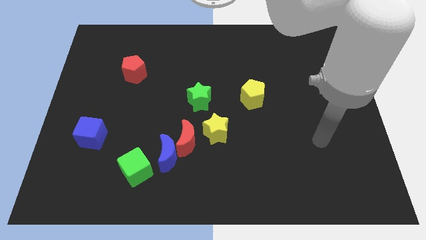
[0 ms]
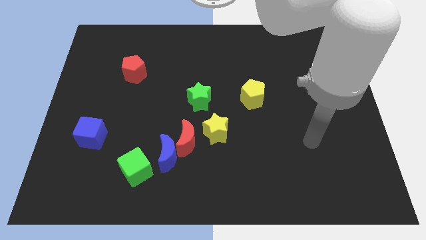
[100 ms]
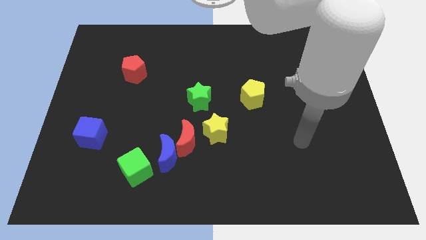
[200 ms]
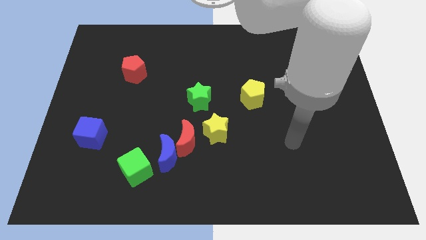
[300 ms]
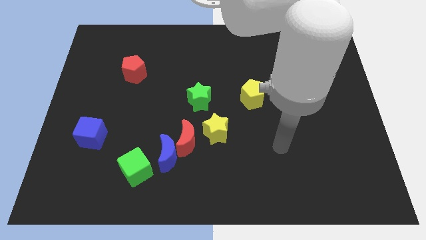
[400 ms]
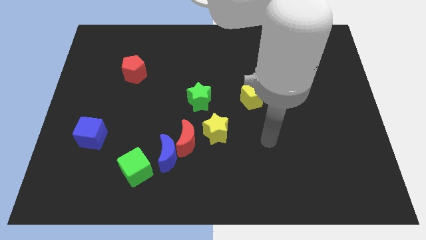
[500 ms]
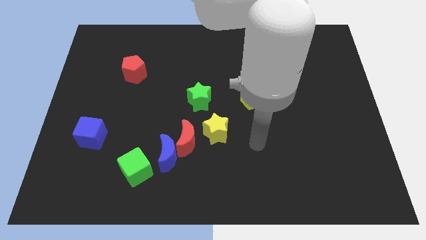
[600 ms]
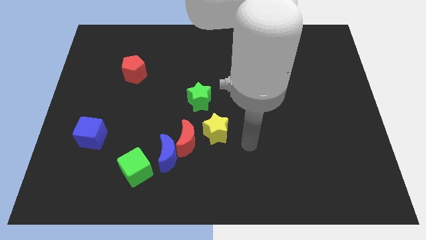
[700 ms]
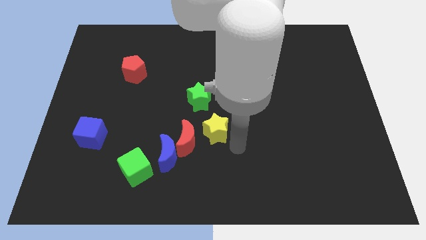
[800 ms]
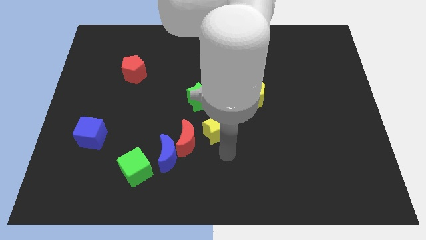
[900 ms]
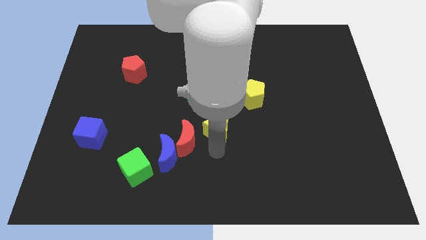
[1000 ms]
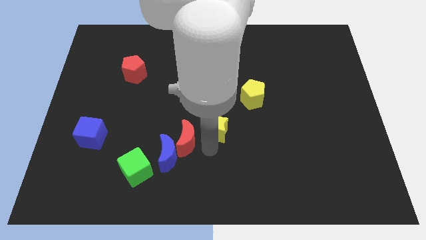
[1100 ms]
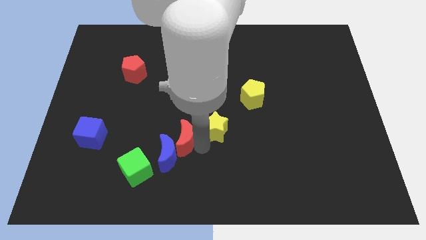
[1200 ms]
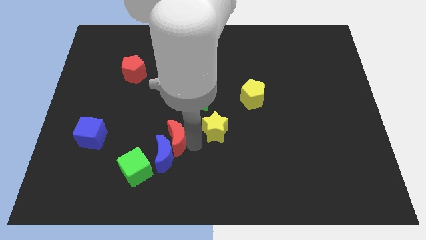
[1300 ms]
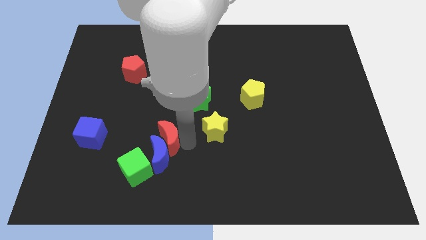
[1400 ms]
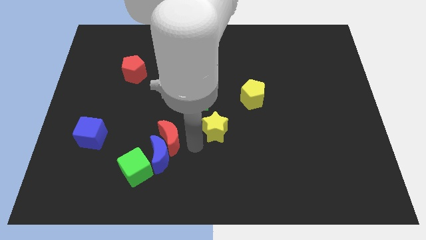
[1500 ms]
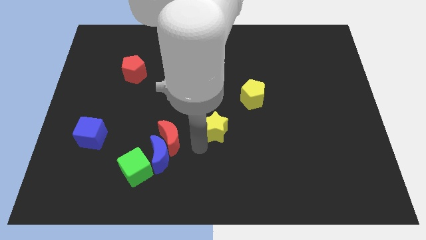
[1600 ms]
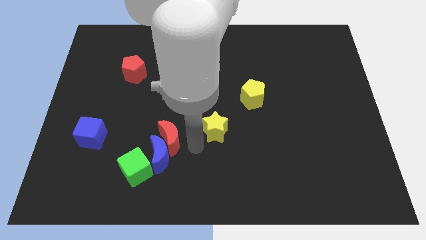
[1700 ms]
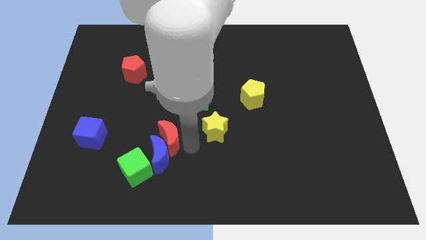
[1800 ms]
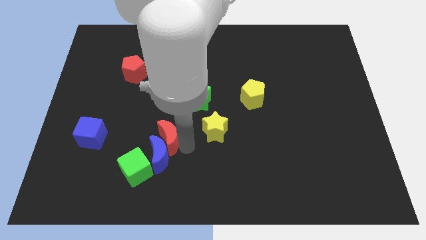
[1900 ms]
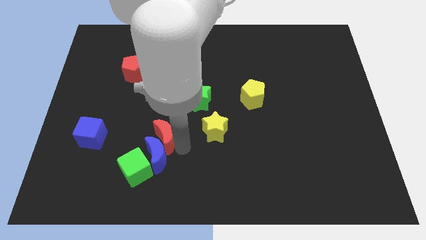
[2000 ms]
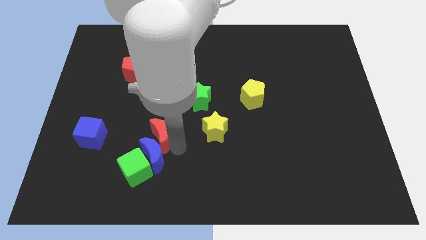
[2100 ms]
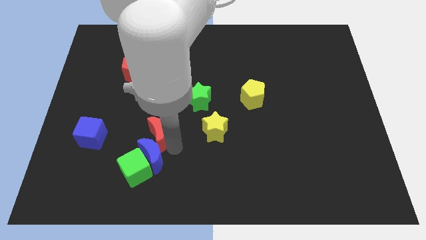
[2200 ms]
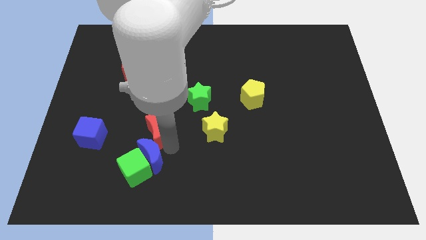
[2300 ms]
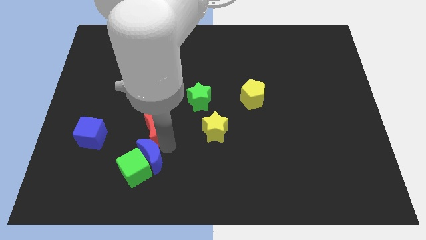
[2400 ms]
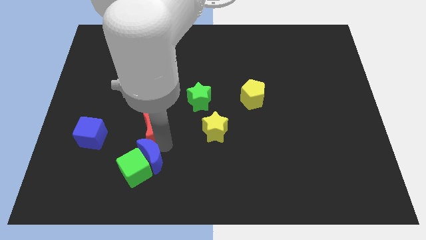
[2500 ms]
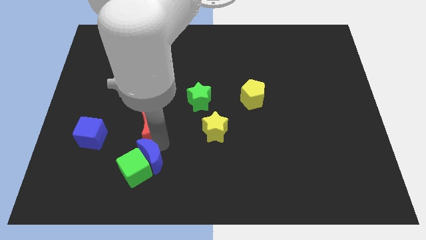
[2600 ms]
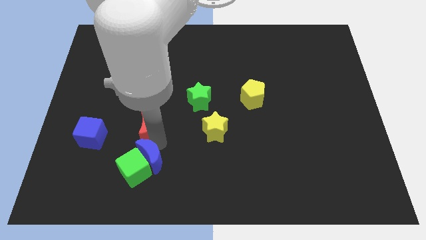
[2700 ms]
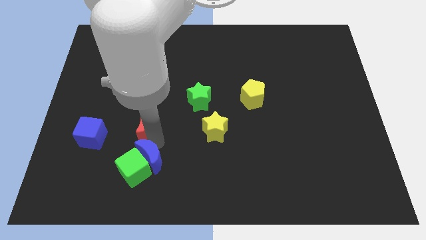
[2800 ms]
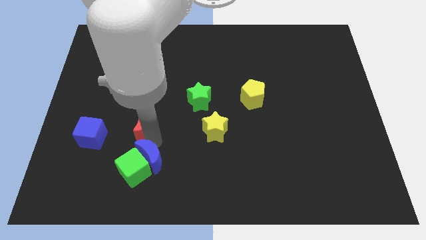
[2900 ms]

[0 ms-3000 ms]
pull the red moon apart from the blue moon and yellow star

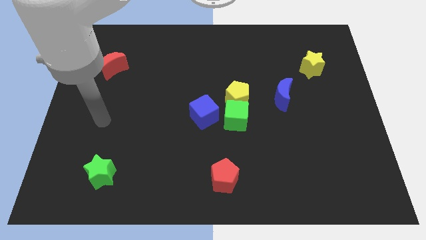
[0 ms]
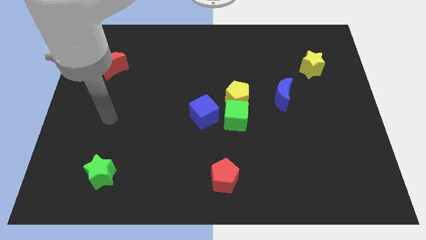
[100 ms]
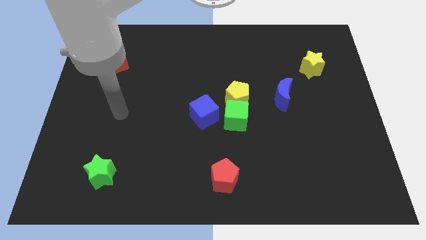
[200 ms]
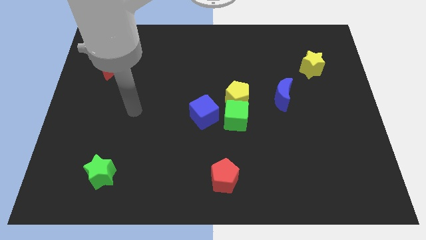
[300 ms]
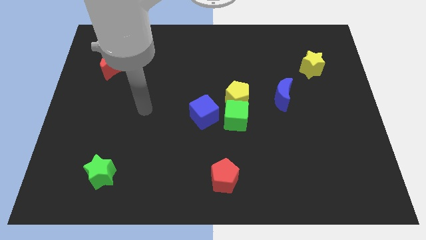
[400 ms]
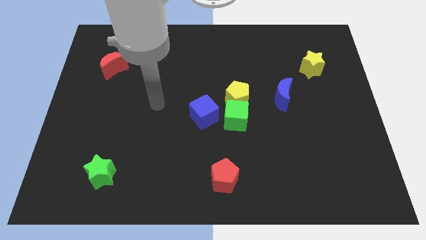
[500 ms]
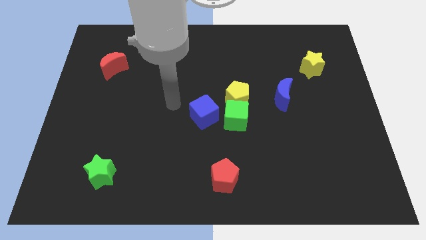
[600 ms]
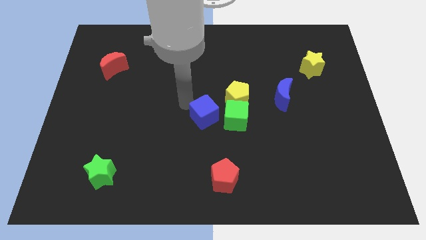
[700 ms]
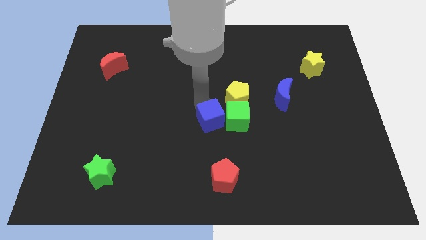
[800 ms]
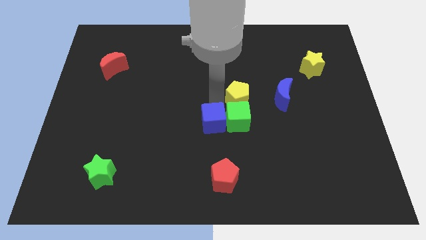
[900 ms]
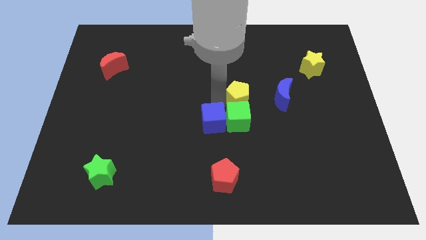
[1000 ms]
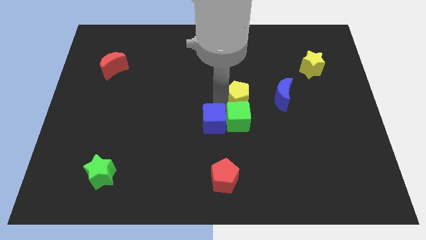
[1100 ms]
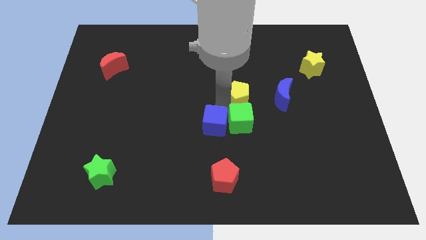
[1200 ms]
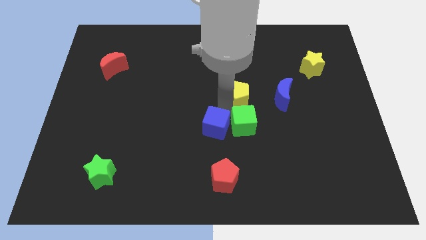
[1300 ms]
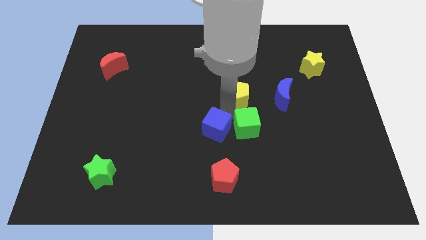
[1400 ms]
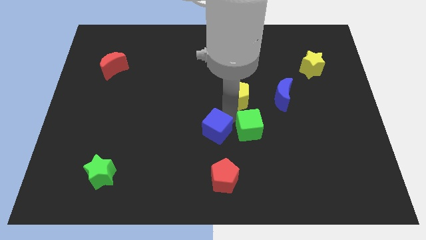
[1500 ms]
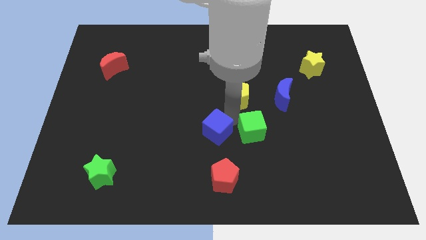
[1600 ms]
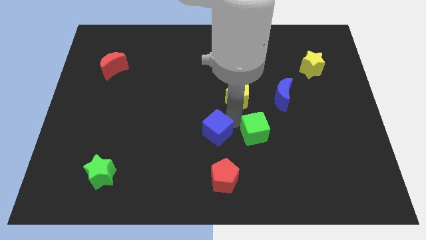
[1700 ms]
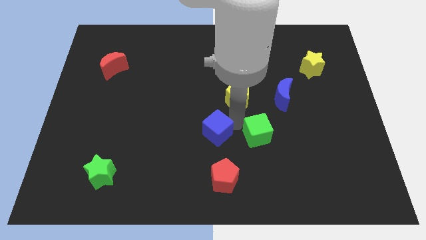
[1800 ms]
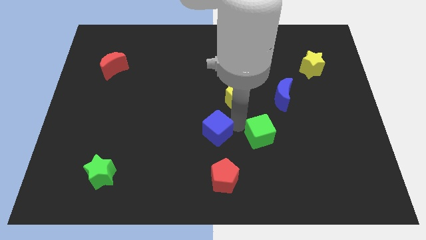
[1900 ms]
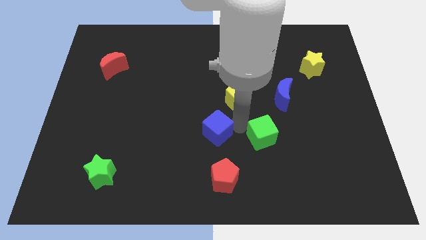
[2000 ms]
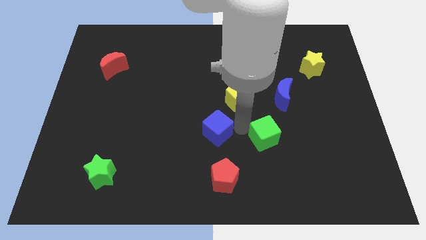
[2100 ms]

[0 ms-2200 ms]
pull the green cube apart from the yellow pentagon and blue cube

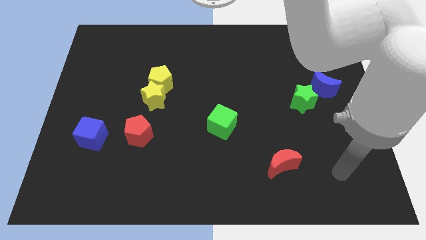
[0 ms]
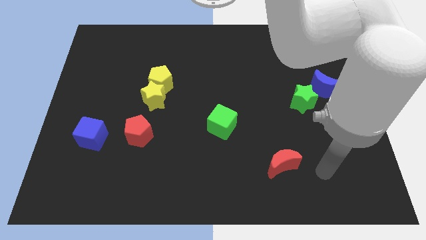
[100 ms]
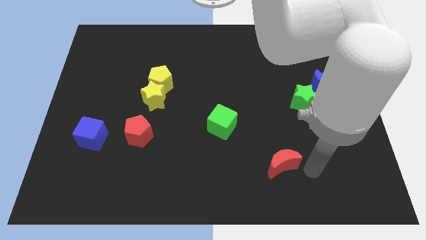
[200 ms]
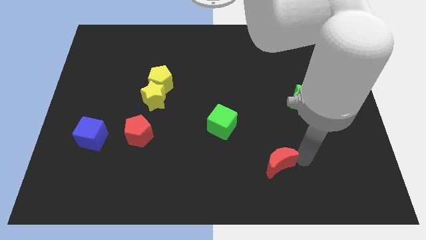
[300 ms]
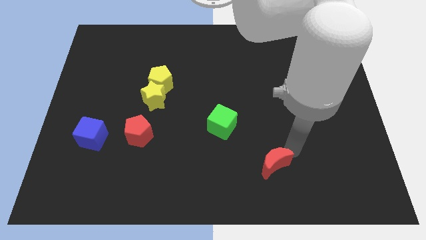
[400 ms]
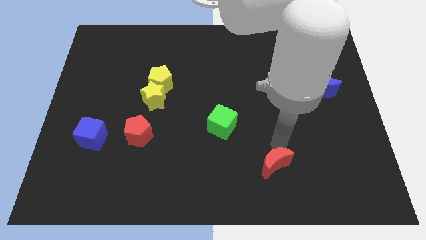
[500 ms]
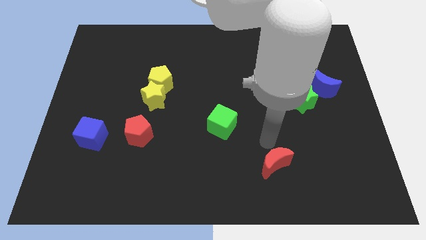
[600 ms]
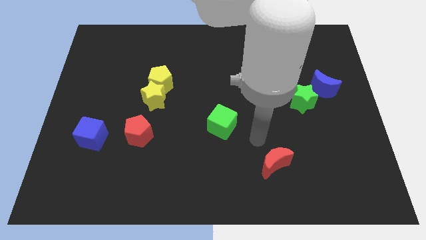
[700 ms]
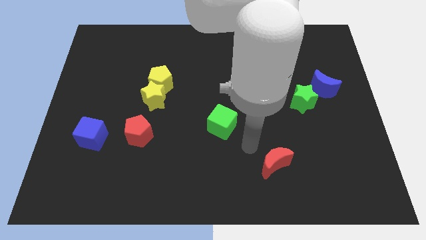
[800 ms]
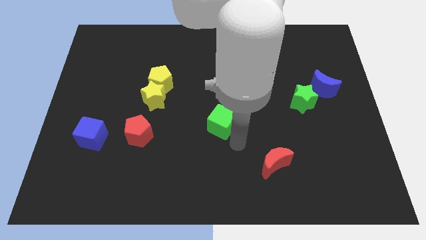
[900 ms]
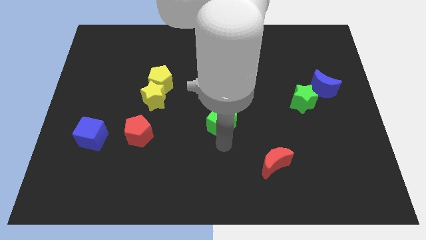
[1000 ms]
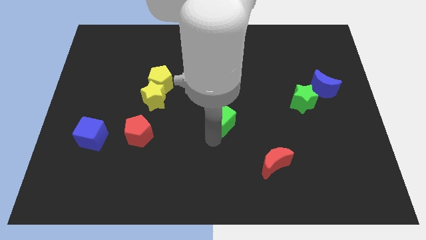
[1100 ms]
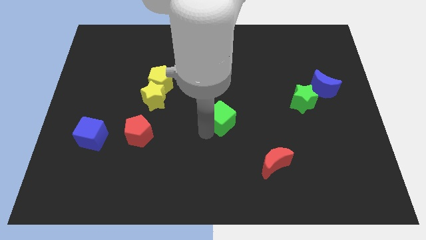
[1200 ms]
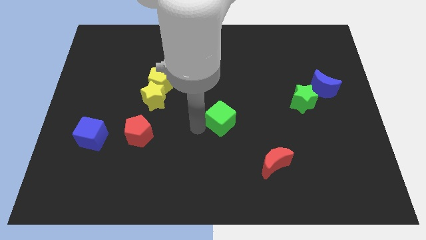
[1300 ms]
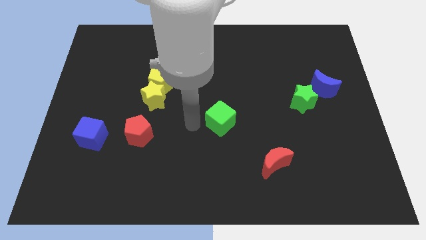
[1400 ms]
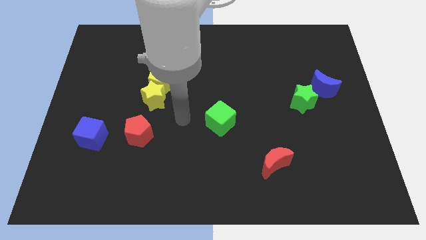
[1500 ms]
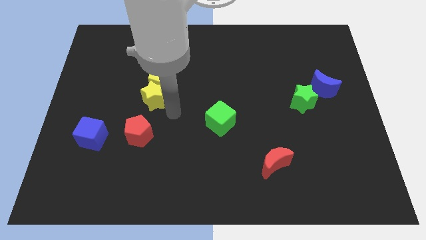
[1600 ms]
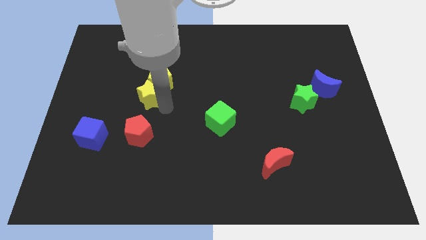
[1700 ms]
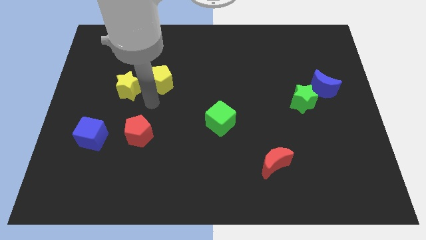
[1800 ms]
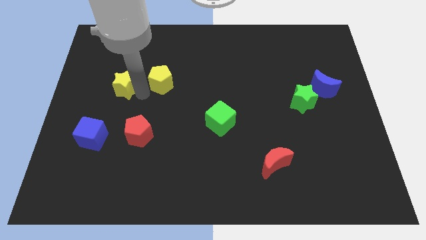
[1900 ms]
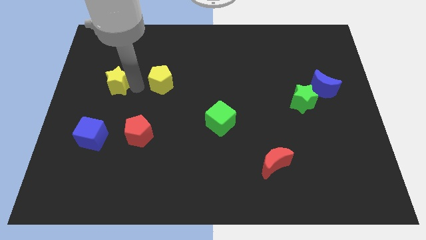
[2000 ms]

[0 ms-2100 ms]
pull the yellow pentagon apart from the yellow star

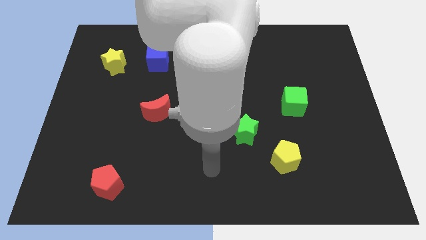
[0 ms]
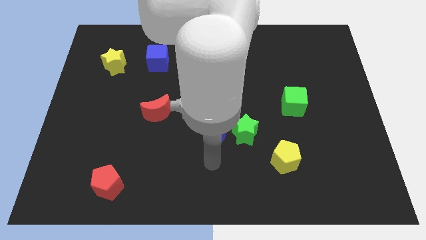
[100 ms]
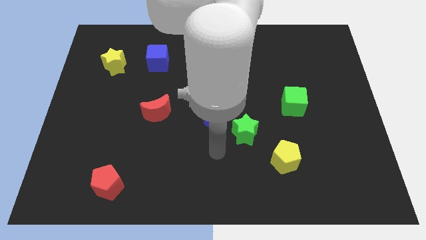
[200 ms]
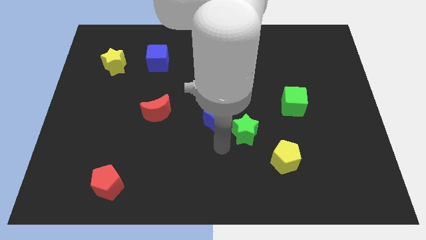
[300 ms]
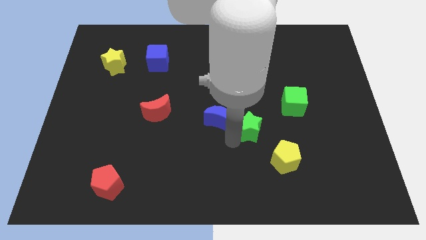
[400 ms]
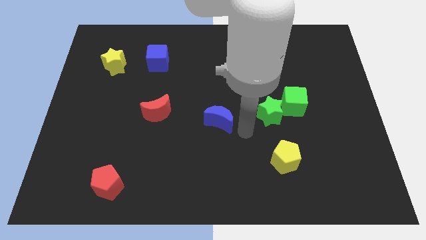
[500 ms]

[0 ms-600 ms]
move the blue moon away from the green star

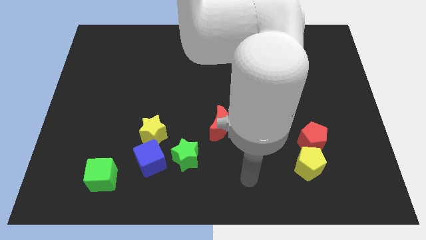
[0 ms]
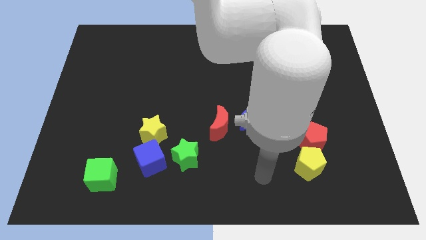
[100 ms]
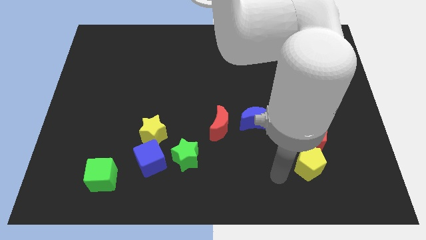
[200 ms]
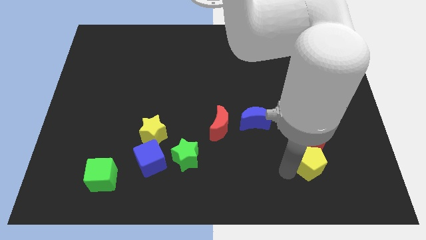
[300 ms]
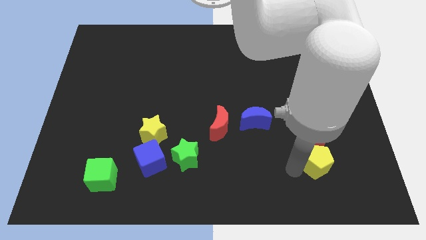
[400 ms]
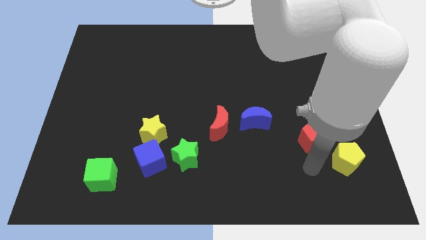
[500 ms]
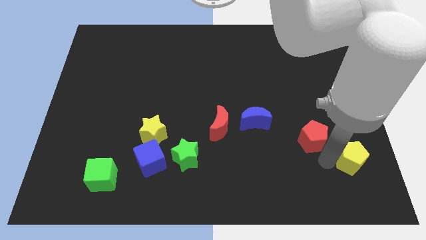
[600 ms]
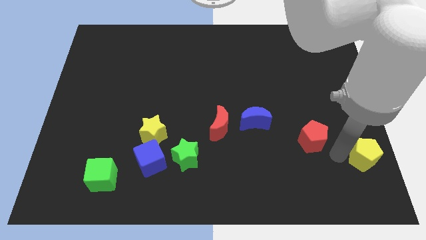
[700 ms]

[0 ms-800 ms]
separate the red pentagon from the yellow pentagon

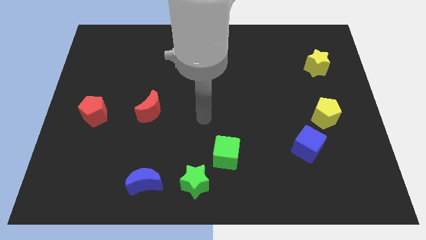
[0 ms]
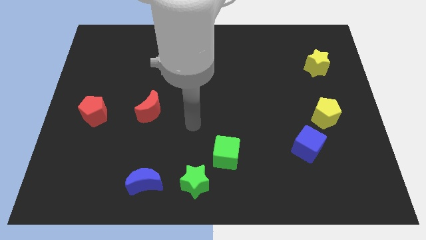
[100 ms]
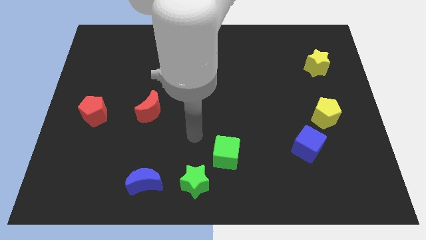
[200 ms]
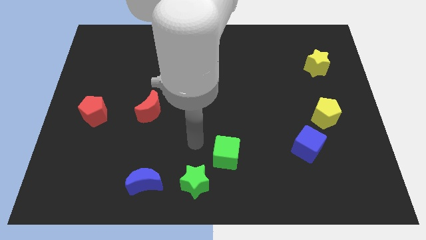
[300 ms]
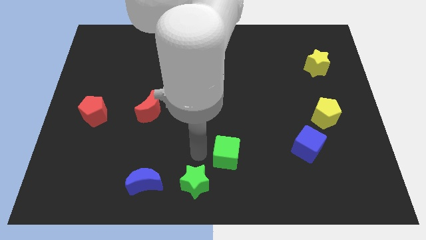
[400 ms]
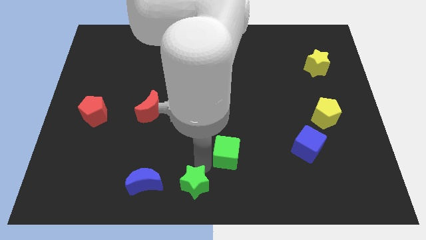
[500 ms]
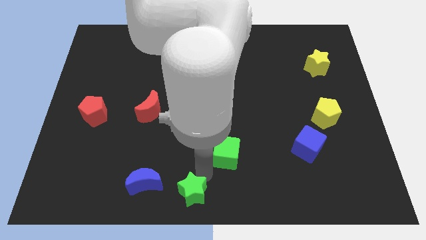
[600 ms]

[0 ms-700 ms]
pull the green cube apart from the green star
